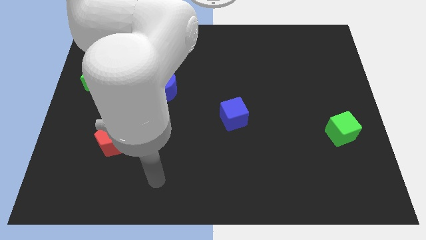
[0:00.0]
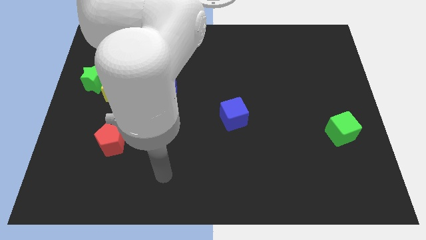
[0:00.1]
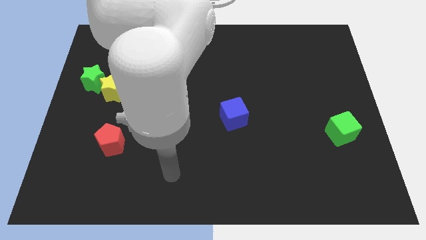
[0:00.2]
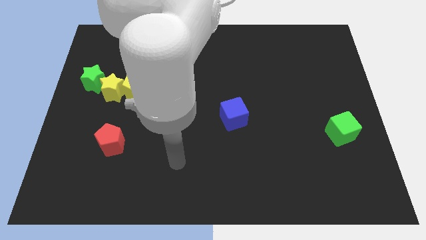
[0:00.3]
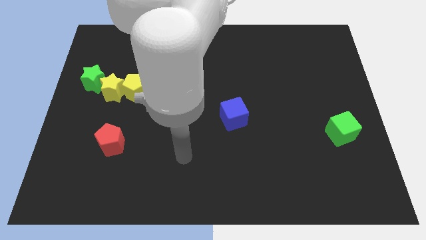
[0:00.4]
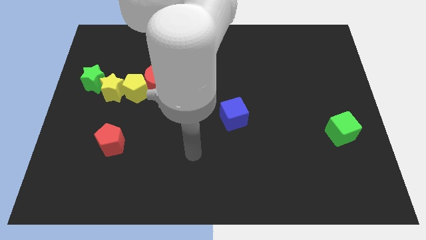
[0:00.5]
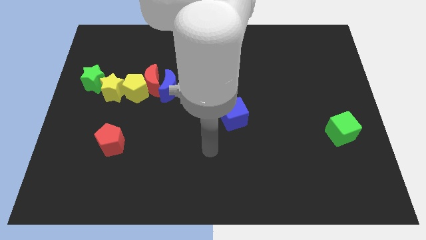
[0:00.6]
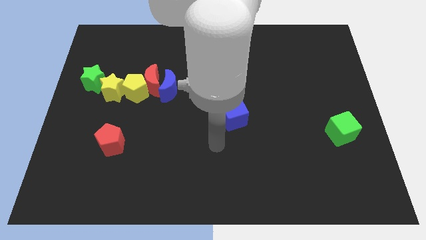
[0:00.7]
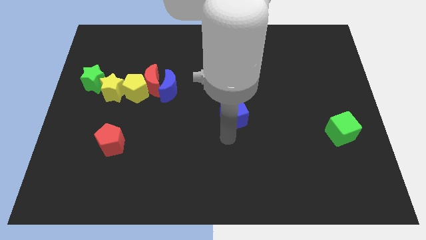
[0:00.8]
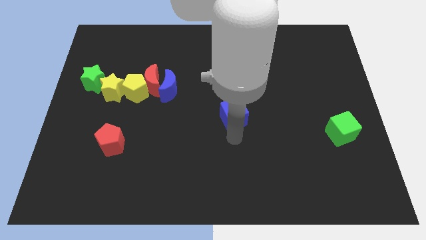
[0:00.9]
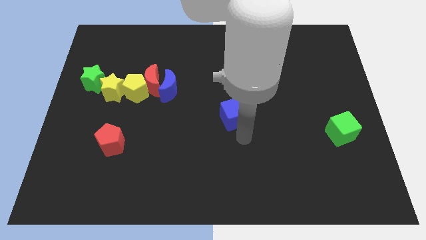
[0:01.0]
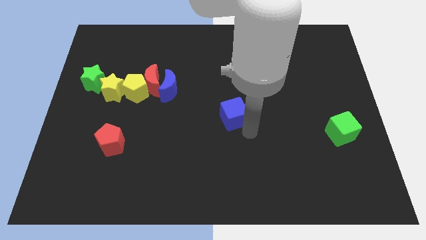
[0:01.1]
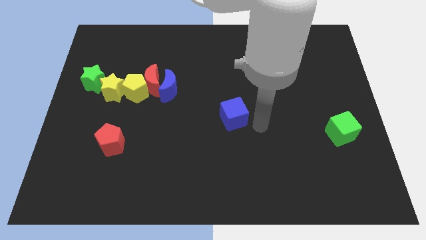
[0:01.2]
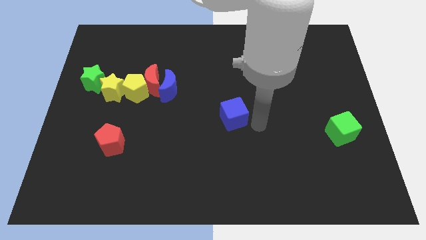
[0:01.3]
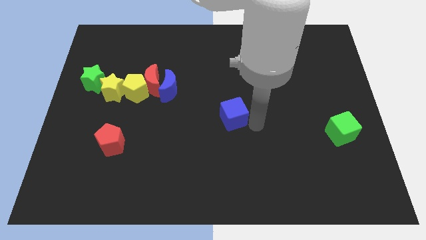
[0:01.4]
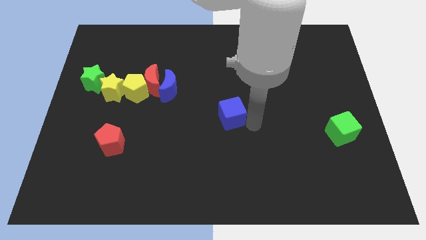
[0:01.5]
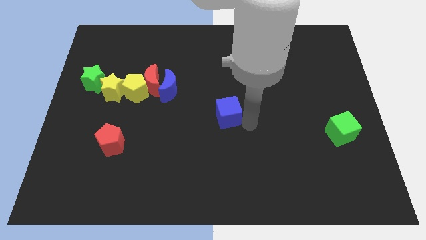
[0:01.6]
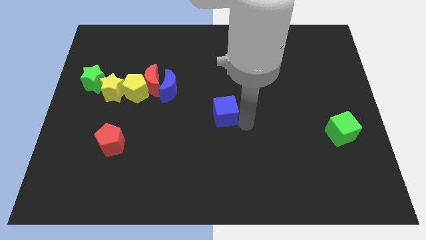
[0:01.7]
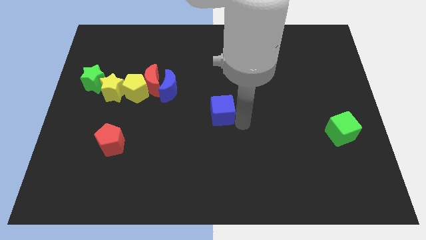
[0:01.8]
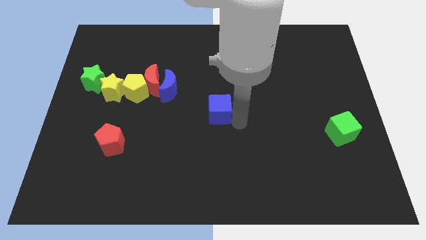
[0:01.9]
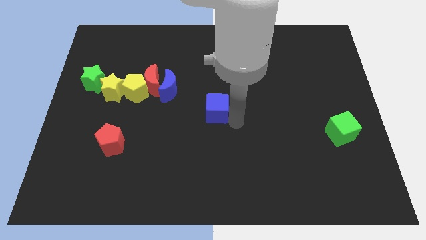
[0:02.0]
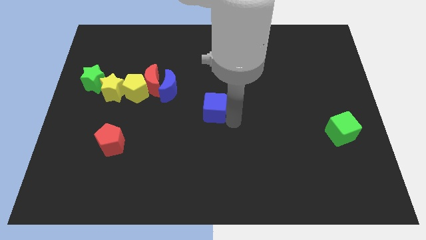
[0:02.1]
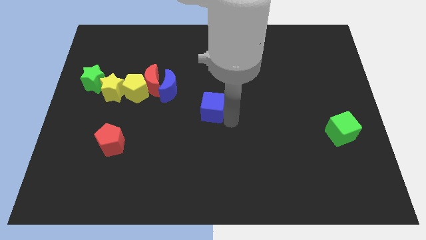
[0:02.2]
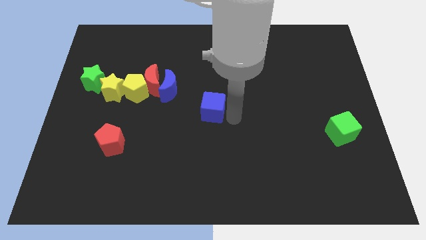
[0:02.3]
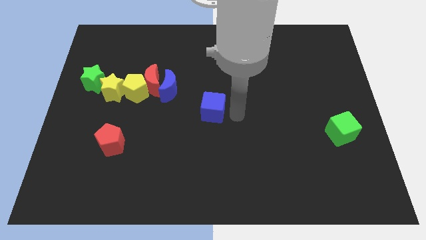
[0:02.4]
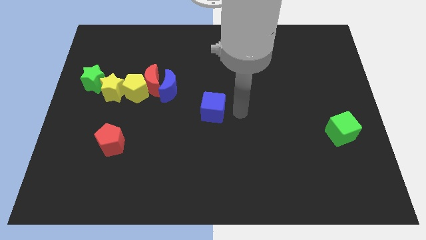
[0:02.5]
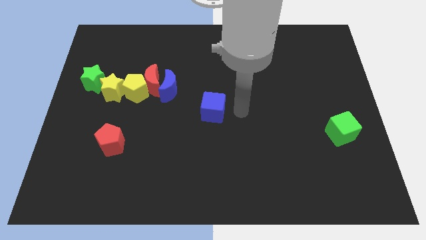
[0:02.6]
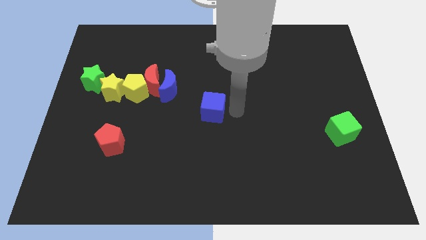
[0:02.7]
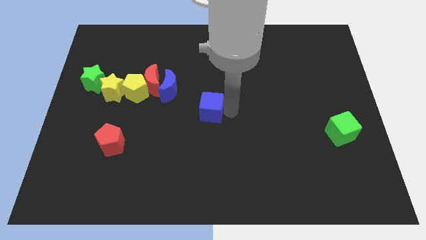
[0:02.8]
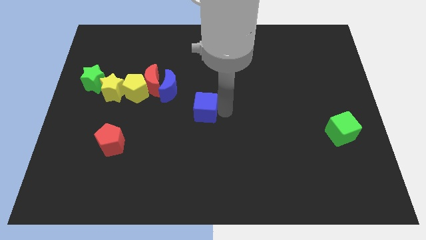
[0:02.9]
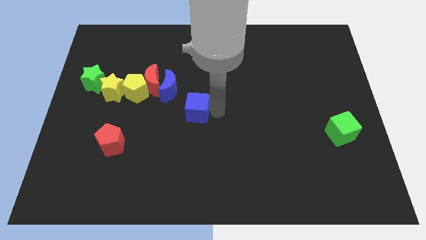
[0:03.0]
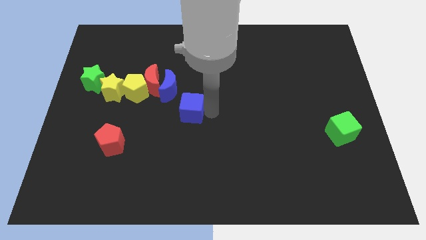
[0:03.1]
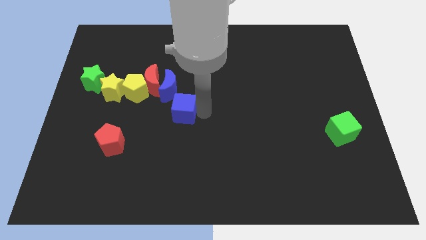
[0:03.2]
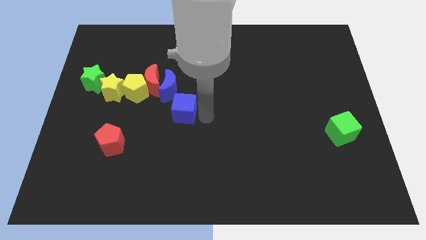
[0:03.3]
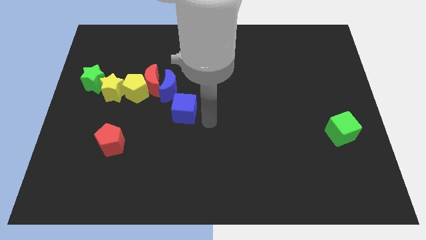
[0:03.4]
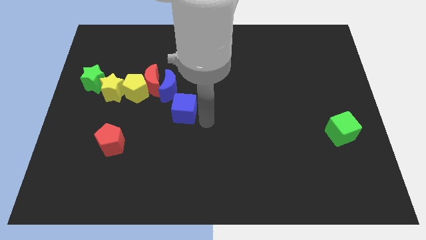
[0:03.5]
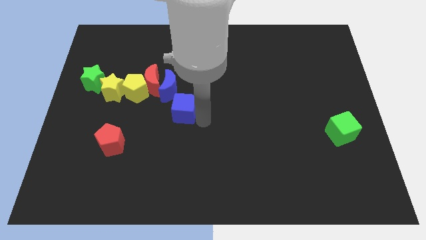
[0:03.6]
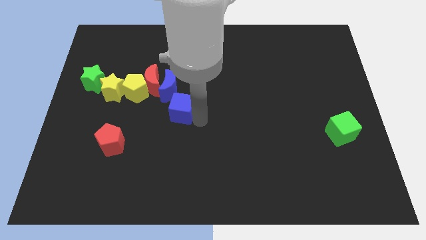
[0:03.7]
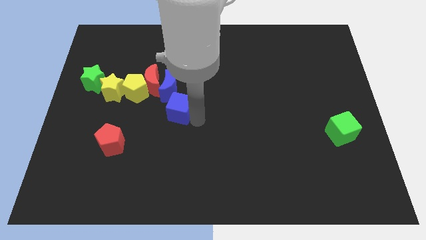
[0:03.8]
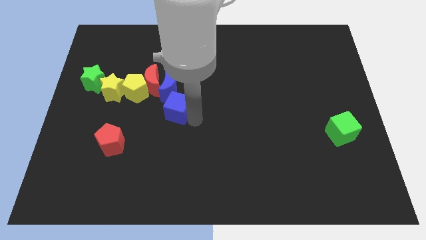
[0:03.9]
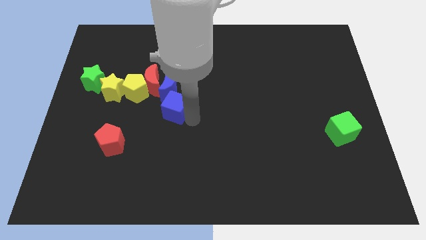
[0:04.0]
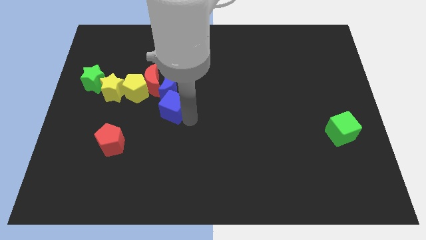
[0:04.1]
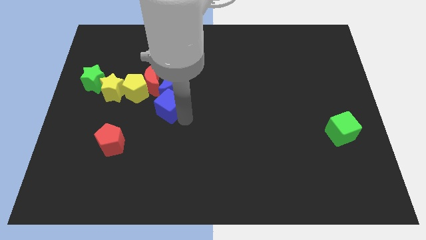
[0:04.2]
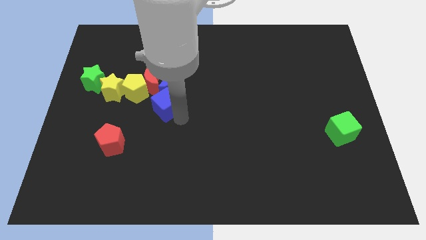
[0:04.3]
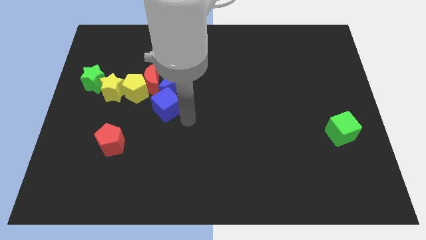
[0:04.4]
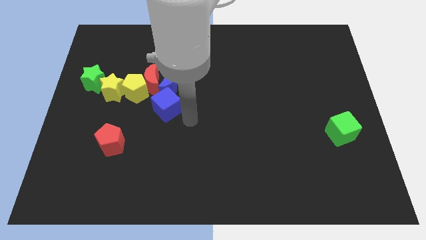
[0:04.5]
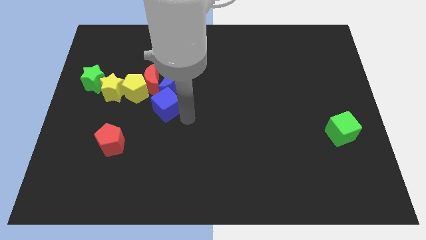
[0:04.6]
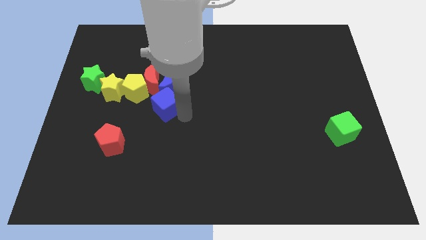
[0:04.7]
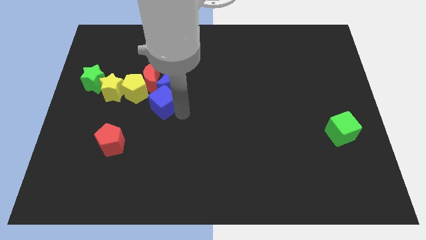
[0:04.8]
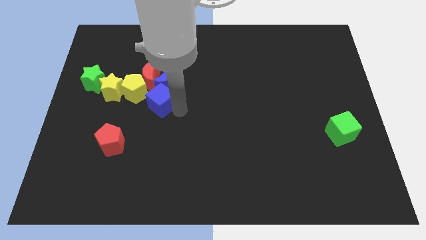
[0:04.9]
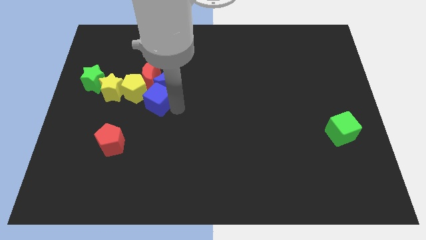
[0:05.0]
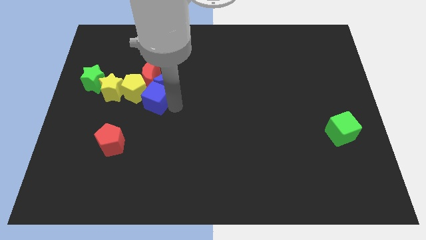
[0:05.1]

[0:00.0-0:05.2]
put the blue cube towards the yellow pentagon

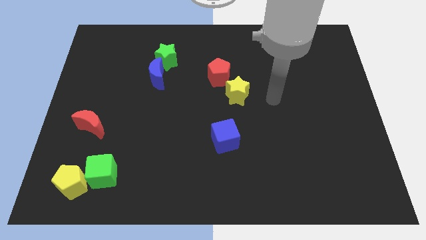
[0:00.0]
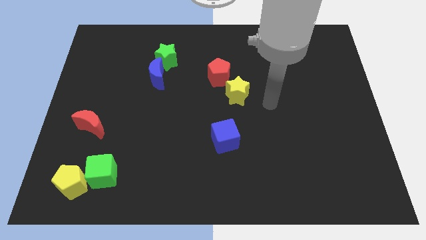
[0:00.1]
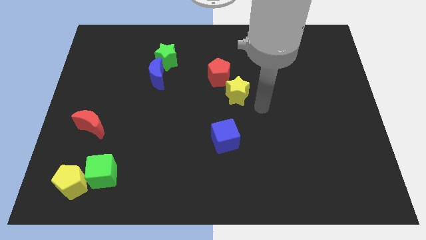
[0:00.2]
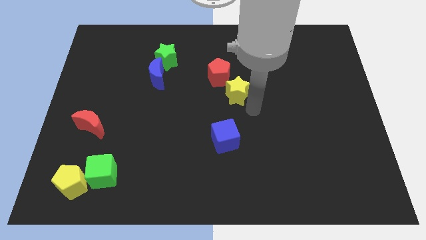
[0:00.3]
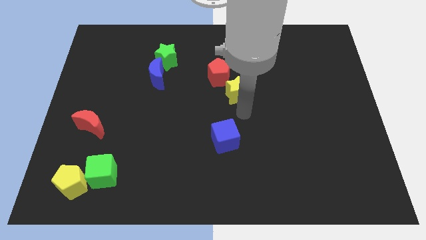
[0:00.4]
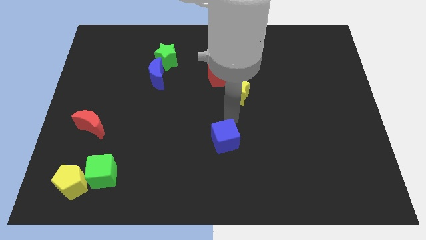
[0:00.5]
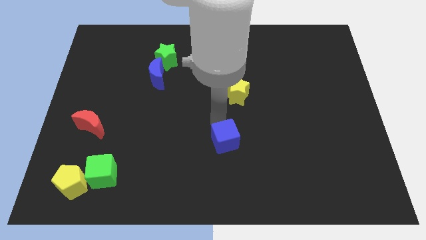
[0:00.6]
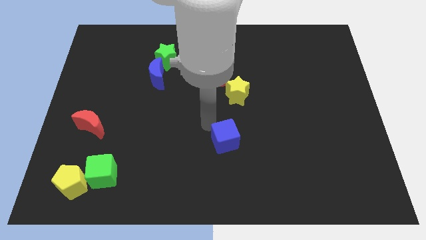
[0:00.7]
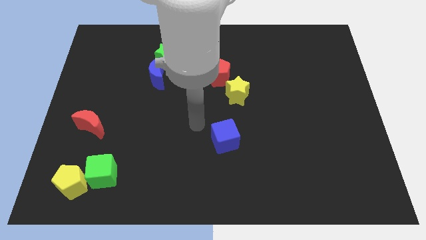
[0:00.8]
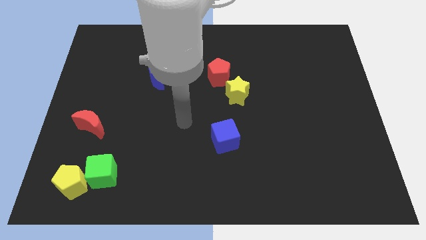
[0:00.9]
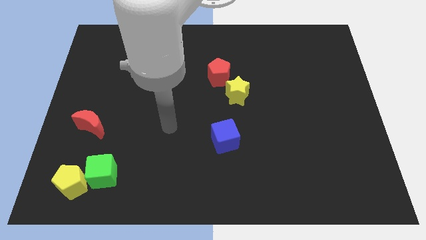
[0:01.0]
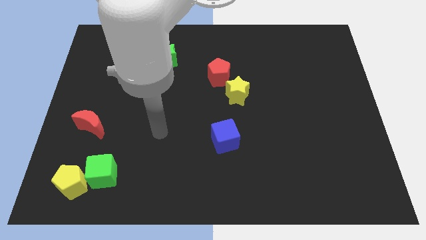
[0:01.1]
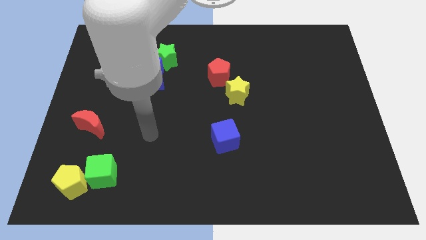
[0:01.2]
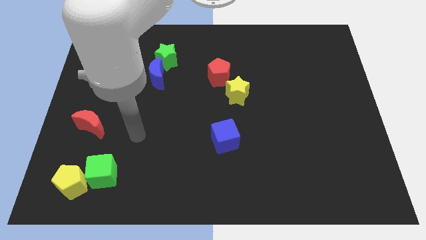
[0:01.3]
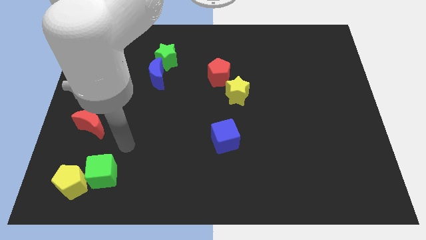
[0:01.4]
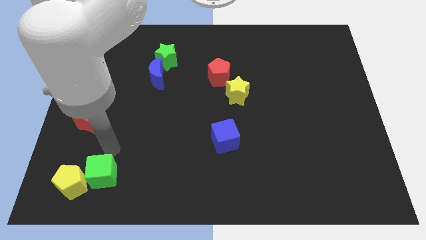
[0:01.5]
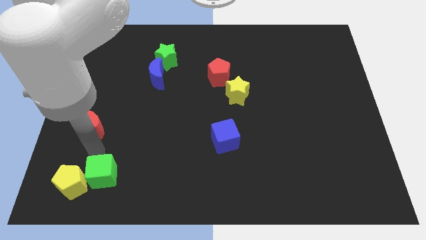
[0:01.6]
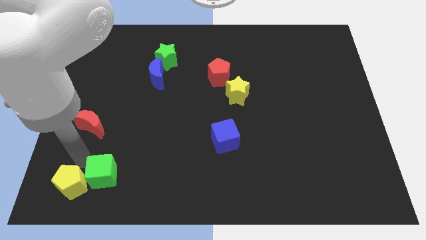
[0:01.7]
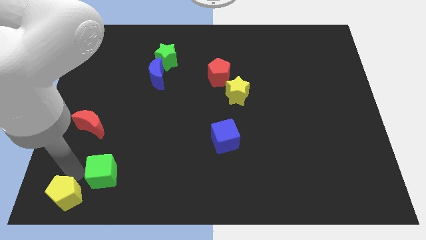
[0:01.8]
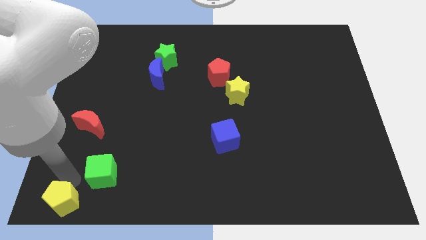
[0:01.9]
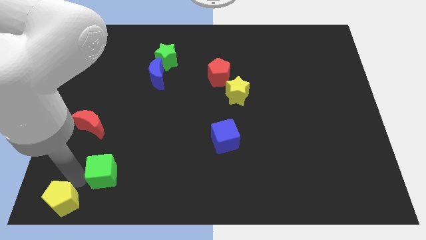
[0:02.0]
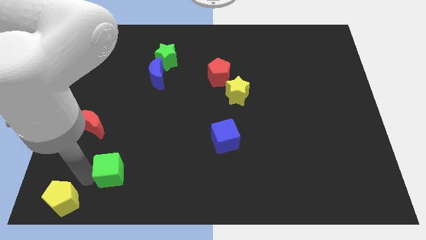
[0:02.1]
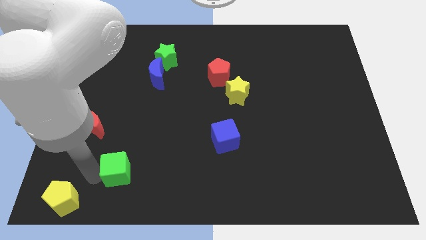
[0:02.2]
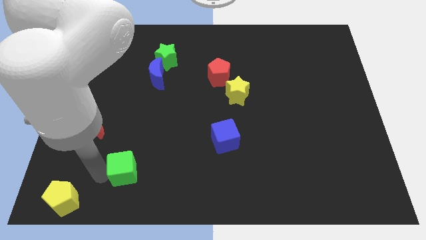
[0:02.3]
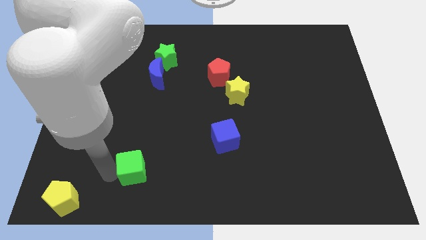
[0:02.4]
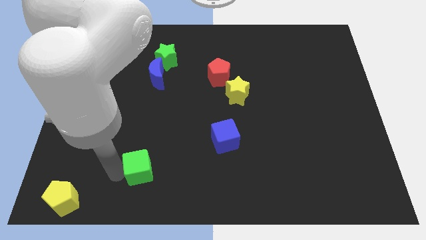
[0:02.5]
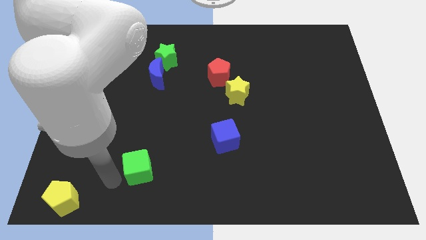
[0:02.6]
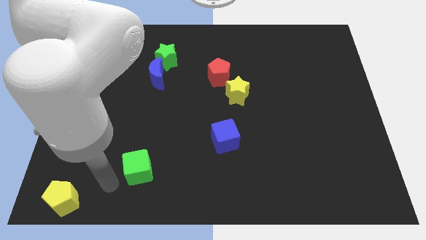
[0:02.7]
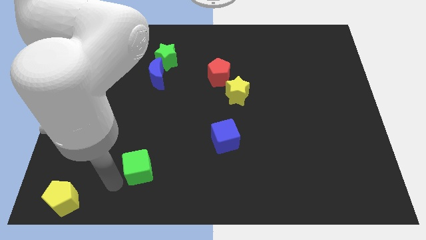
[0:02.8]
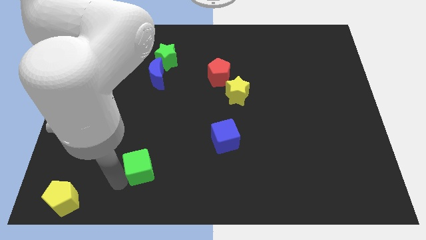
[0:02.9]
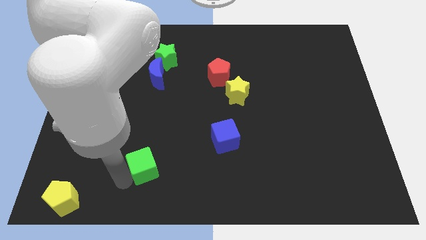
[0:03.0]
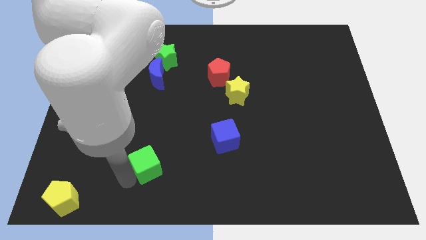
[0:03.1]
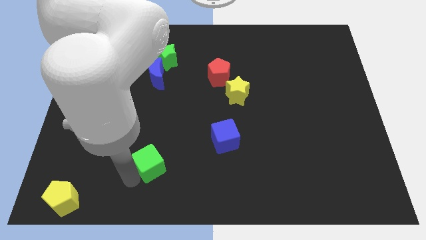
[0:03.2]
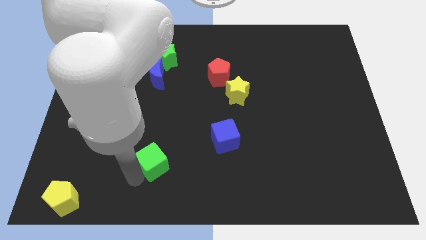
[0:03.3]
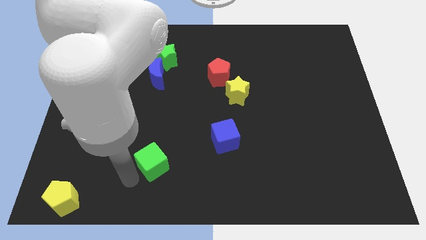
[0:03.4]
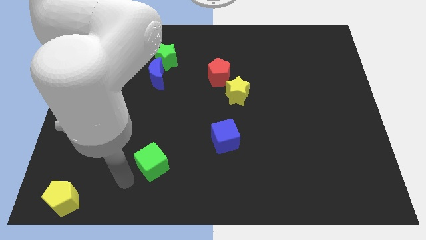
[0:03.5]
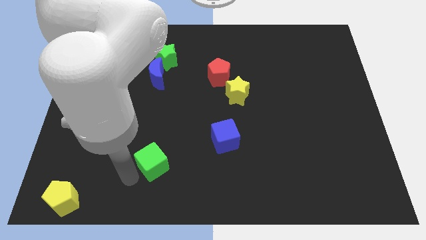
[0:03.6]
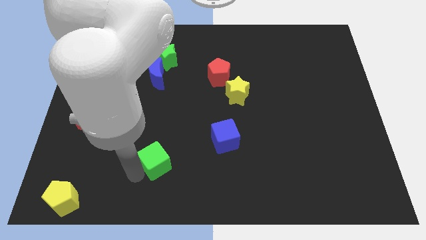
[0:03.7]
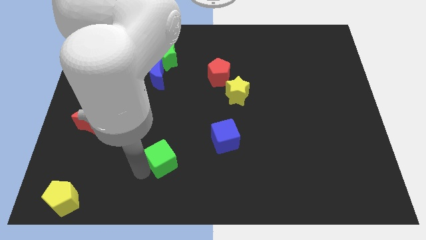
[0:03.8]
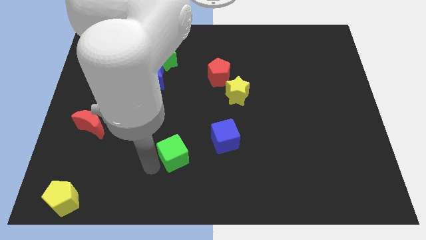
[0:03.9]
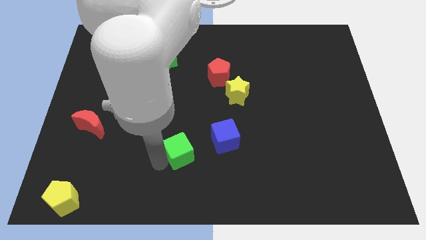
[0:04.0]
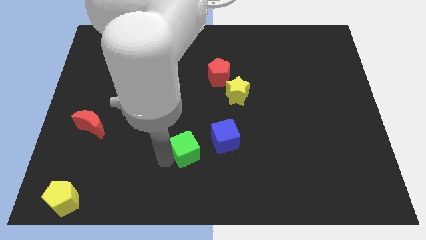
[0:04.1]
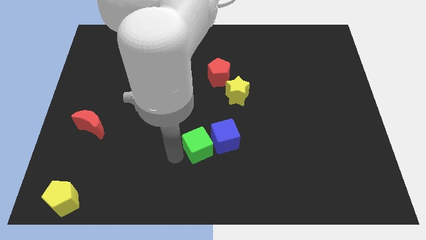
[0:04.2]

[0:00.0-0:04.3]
push the green cube towards the blue cube
